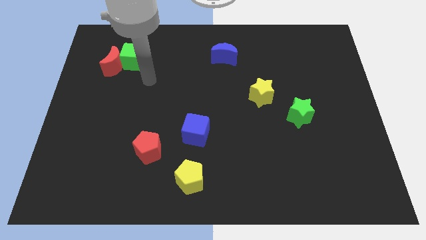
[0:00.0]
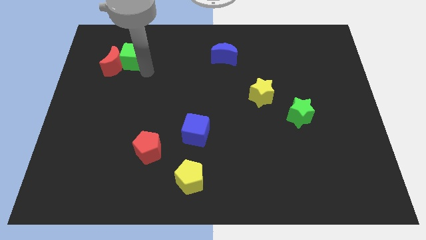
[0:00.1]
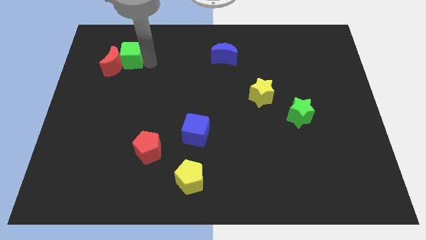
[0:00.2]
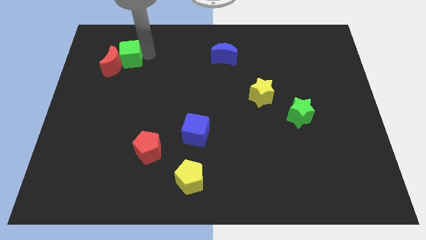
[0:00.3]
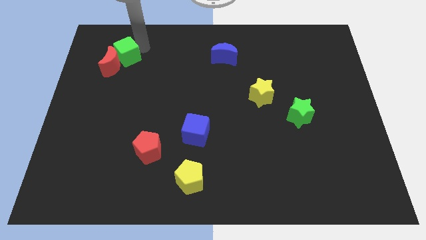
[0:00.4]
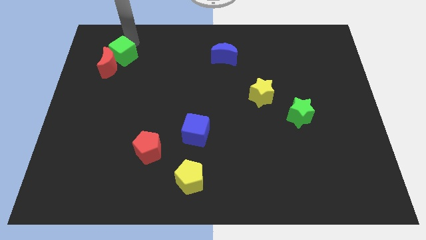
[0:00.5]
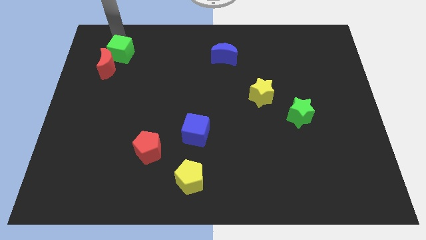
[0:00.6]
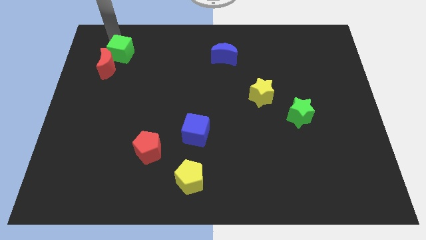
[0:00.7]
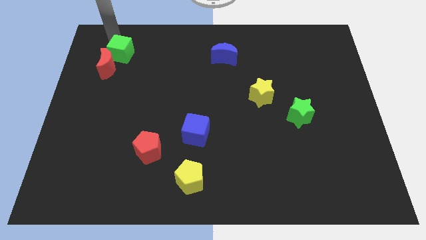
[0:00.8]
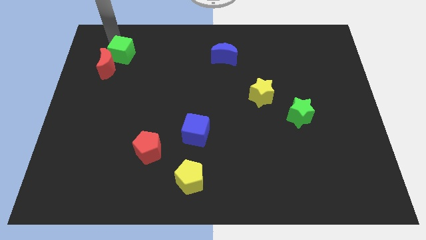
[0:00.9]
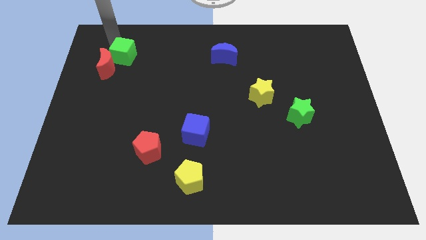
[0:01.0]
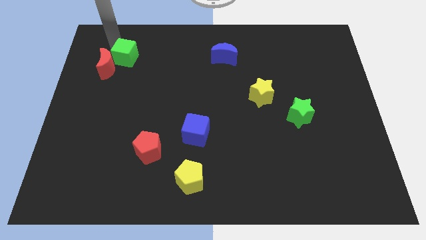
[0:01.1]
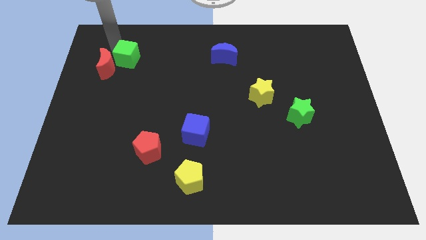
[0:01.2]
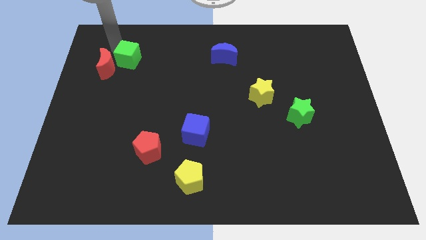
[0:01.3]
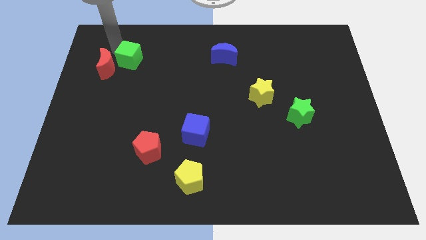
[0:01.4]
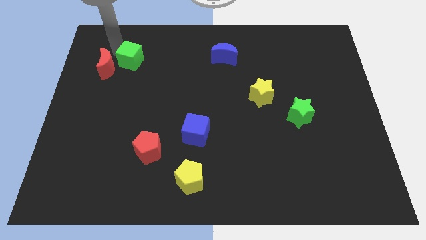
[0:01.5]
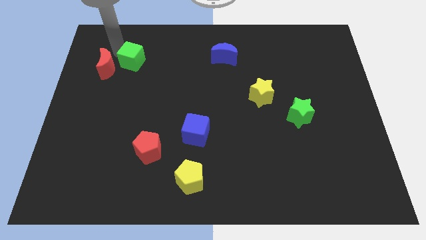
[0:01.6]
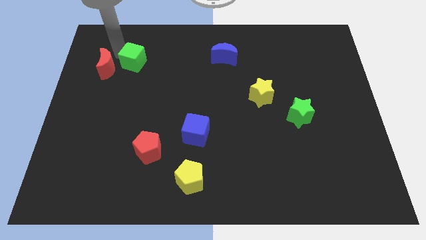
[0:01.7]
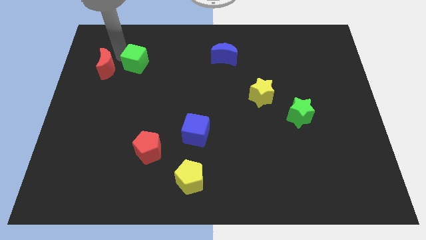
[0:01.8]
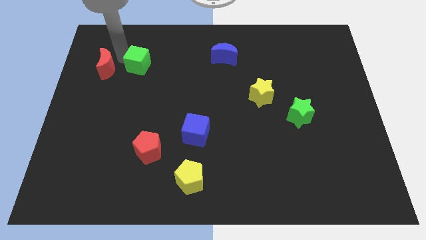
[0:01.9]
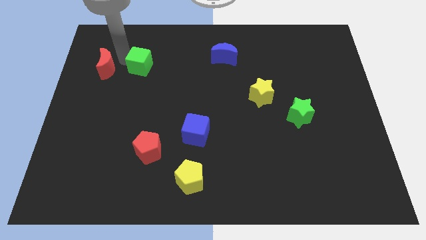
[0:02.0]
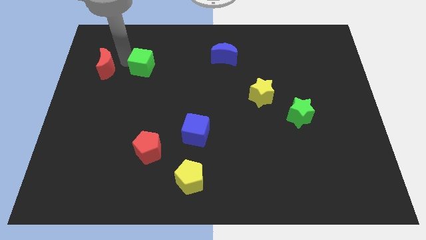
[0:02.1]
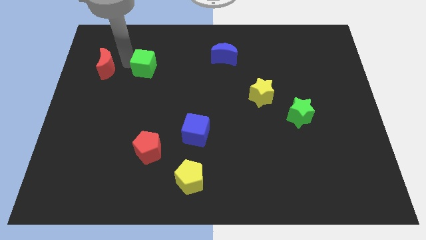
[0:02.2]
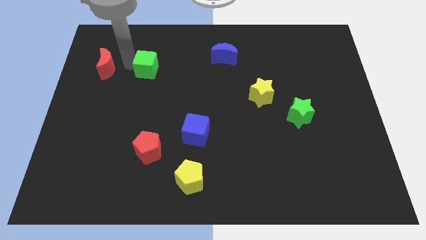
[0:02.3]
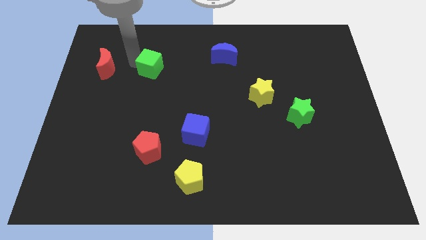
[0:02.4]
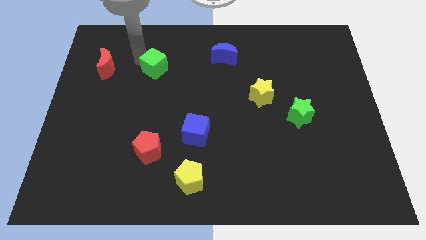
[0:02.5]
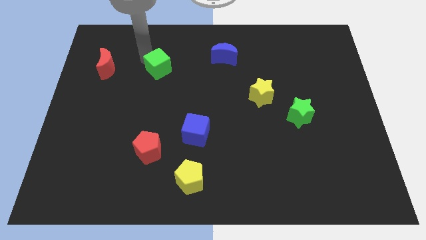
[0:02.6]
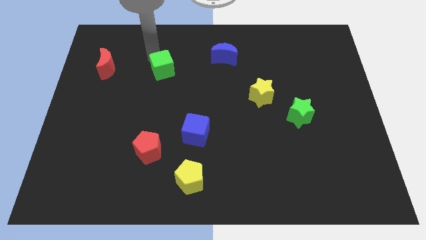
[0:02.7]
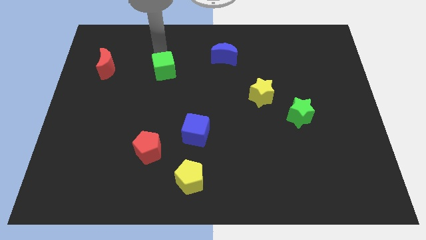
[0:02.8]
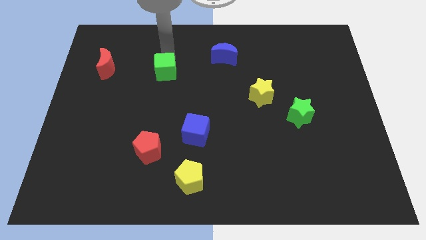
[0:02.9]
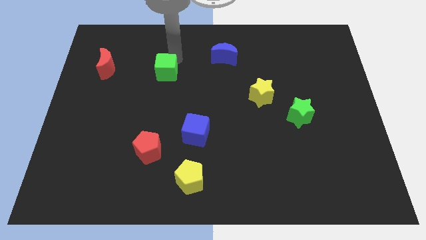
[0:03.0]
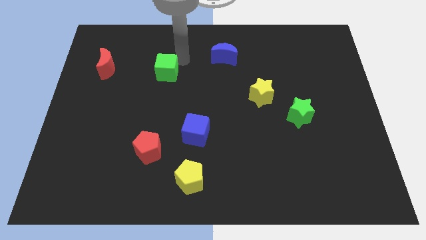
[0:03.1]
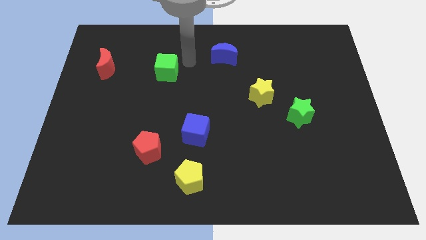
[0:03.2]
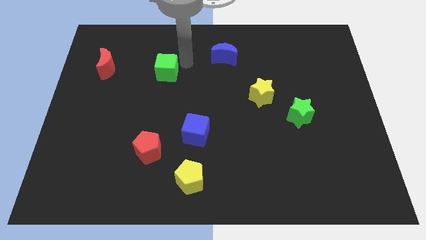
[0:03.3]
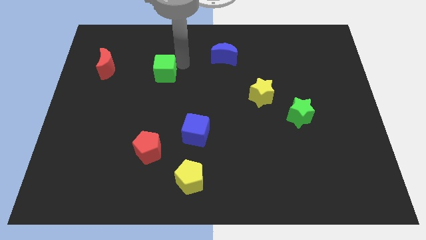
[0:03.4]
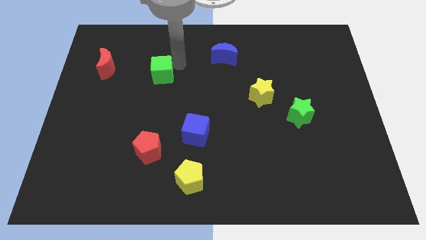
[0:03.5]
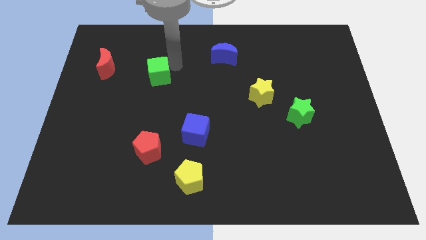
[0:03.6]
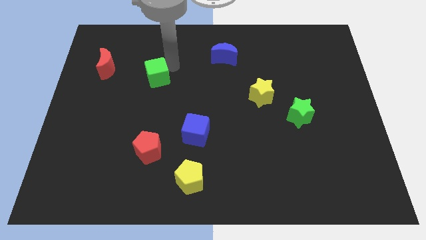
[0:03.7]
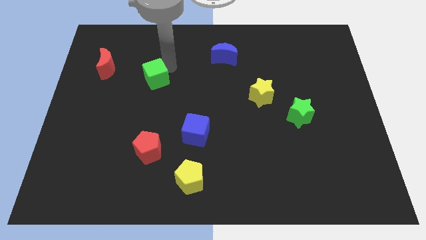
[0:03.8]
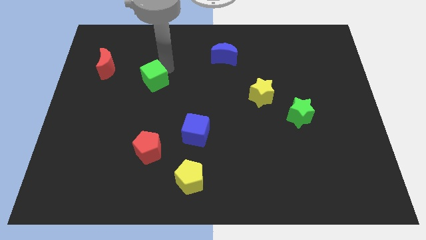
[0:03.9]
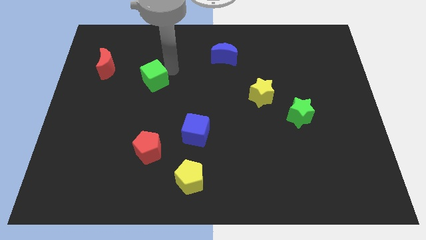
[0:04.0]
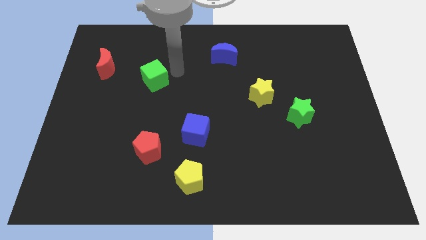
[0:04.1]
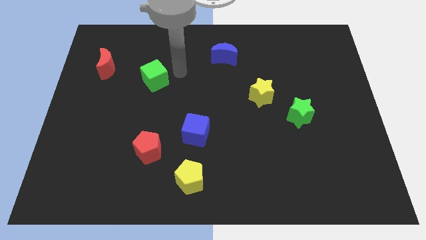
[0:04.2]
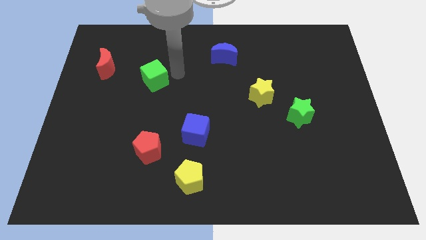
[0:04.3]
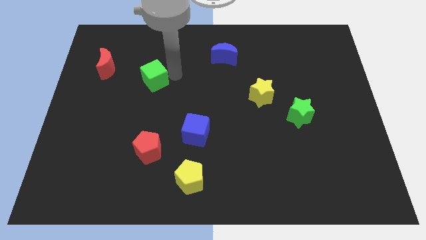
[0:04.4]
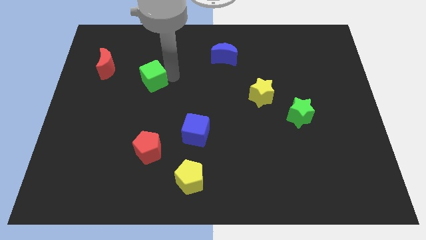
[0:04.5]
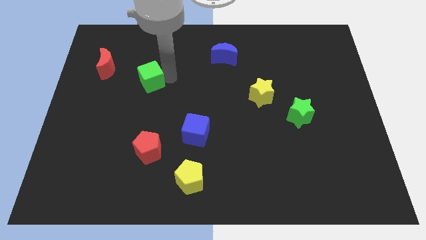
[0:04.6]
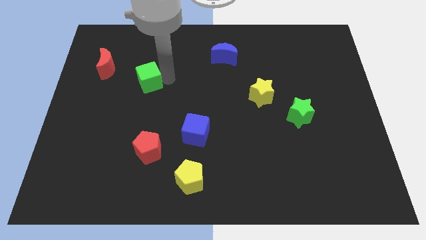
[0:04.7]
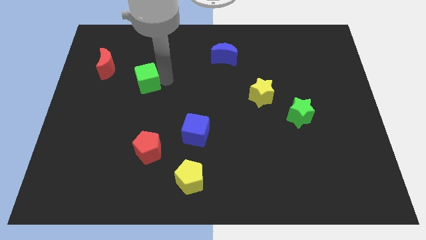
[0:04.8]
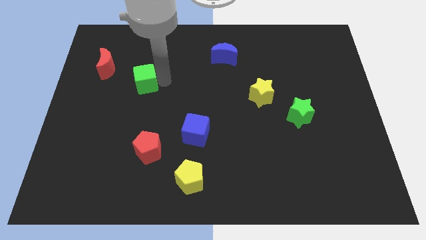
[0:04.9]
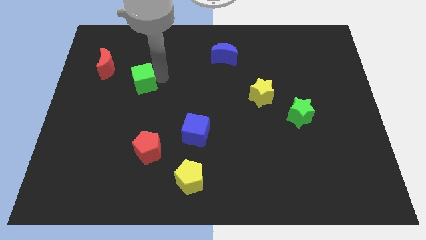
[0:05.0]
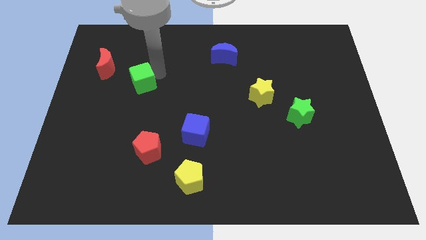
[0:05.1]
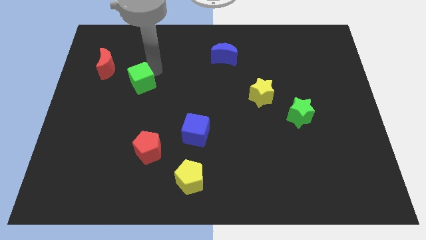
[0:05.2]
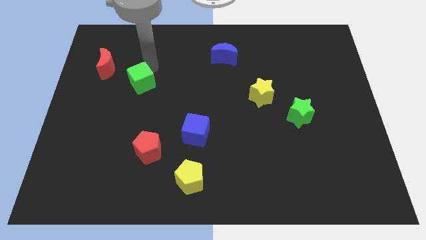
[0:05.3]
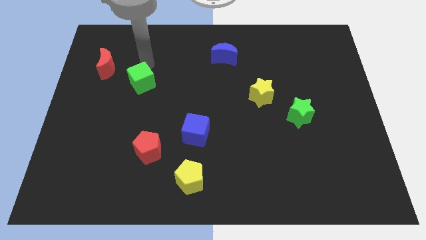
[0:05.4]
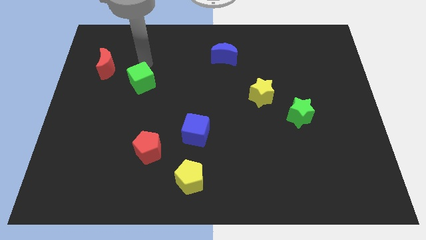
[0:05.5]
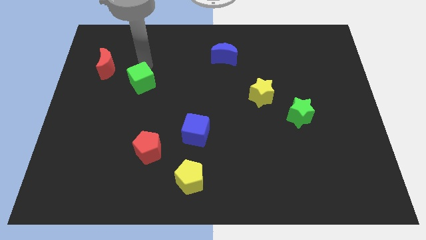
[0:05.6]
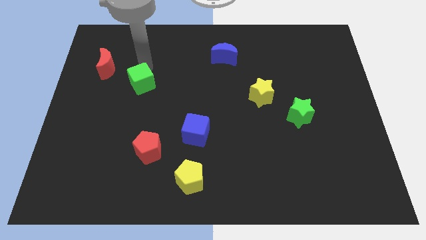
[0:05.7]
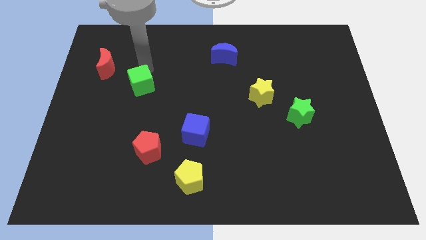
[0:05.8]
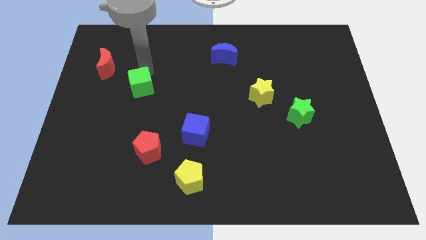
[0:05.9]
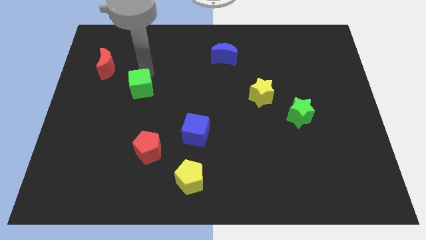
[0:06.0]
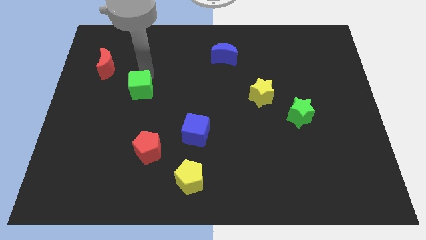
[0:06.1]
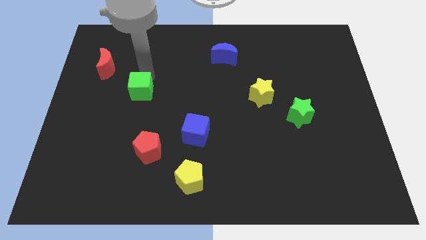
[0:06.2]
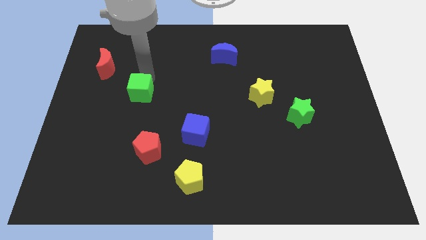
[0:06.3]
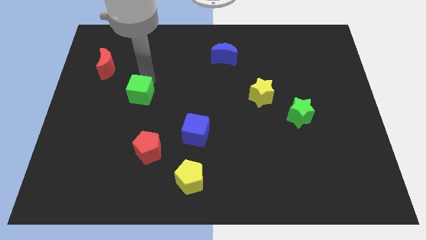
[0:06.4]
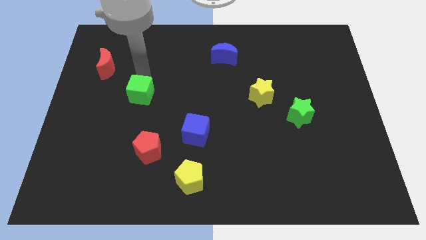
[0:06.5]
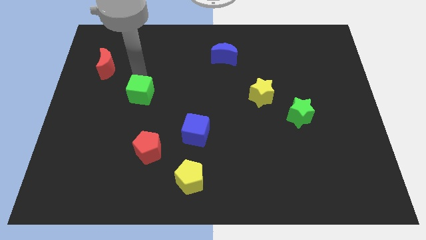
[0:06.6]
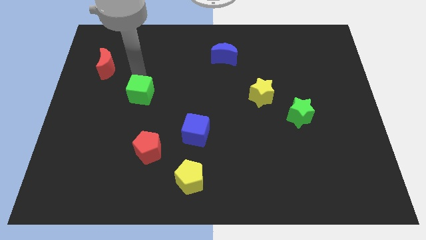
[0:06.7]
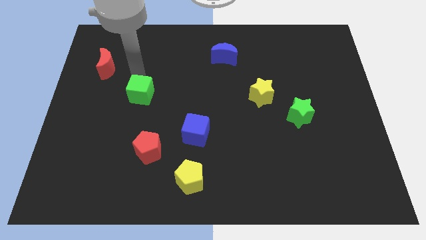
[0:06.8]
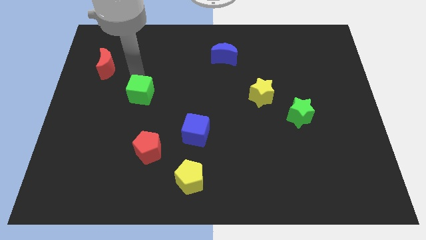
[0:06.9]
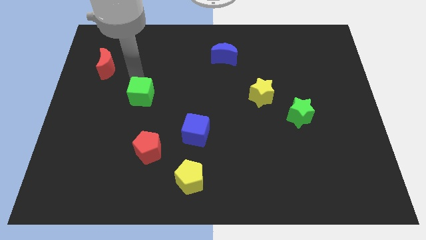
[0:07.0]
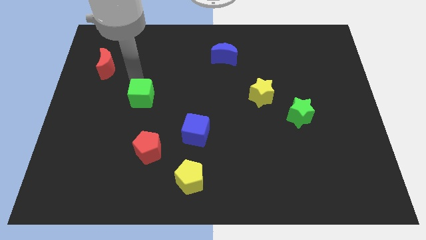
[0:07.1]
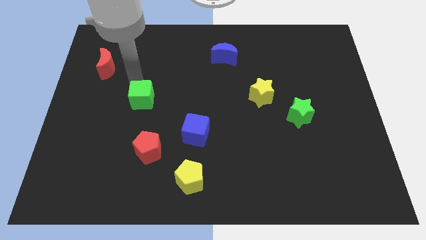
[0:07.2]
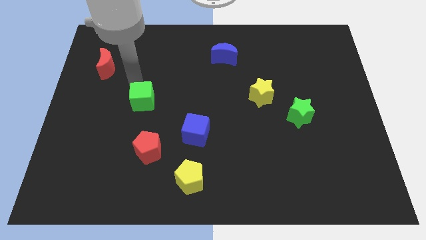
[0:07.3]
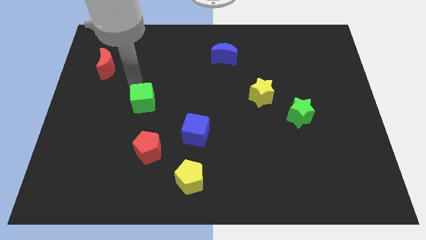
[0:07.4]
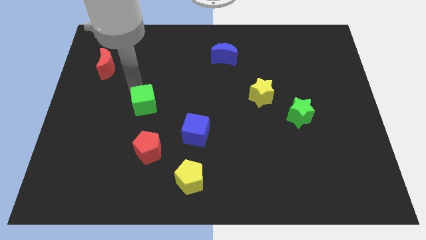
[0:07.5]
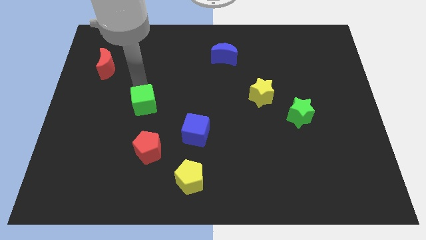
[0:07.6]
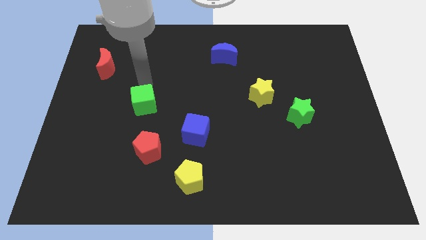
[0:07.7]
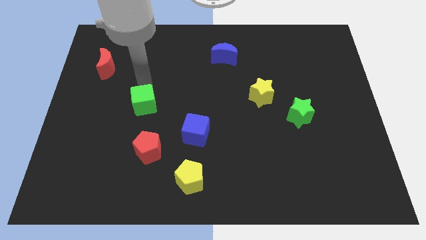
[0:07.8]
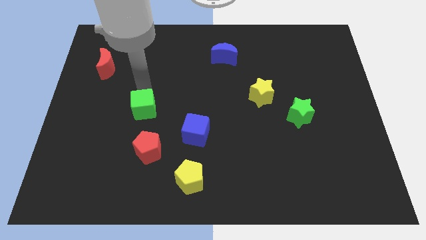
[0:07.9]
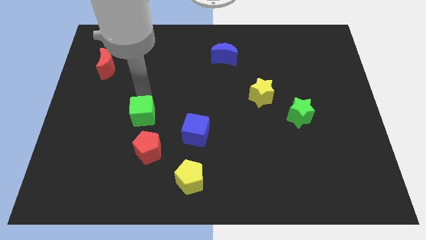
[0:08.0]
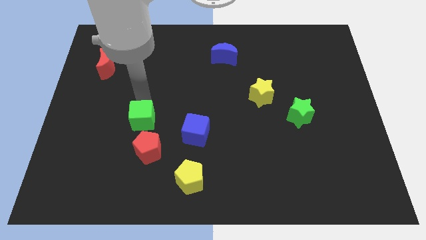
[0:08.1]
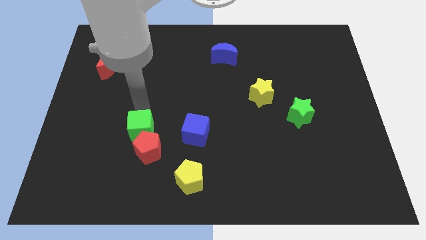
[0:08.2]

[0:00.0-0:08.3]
slide the green cube towards the red pentagon
